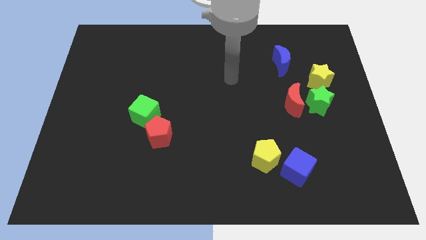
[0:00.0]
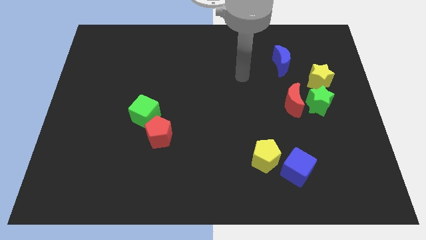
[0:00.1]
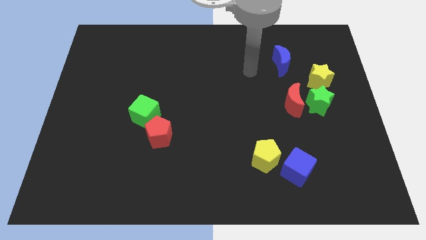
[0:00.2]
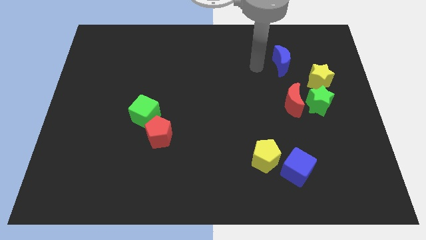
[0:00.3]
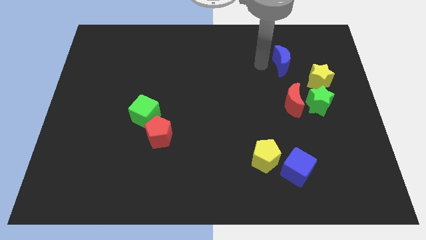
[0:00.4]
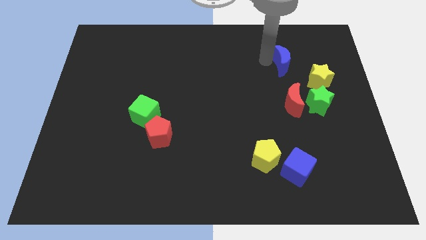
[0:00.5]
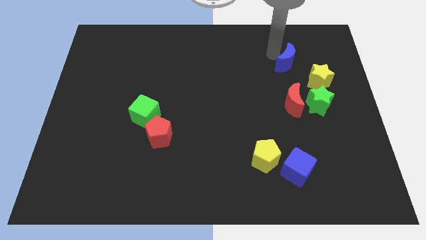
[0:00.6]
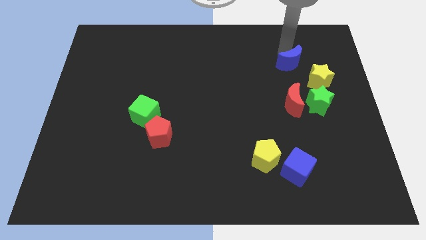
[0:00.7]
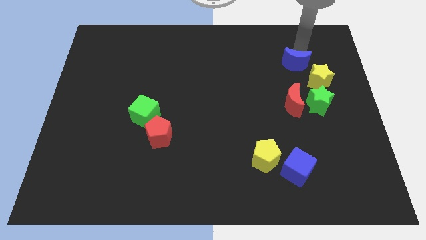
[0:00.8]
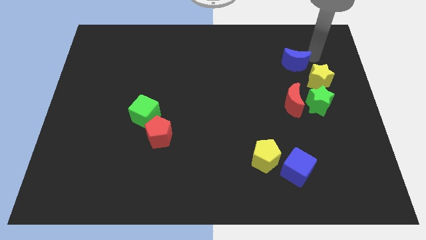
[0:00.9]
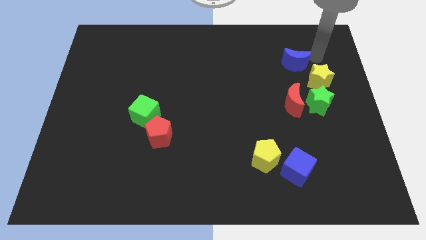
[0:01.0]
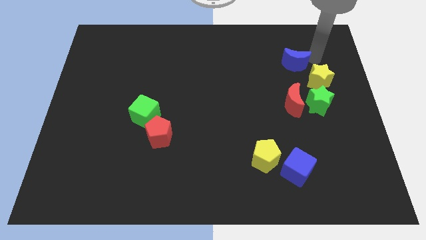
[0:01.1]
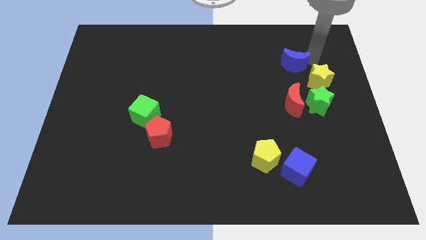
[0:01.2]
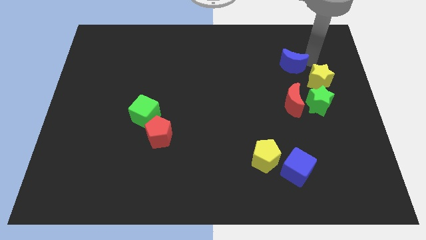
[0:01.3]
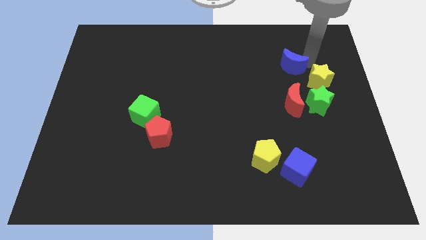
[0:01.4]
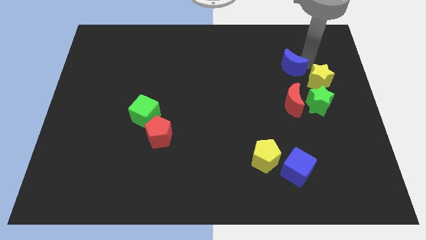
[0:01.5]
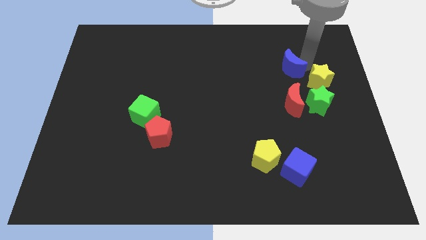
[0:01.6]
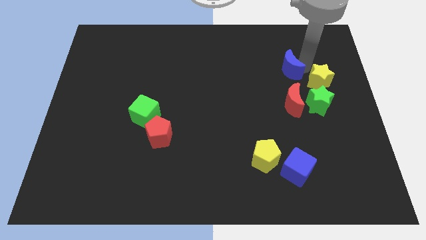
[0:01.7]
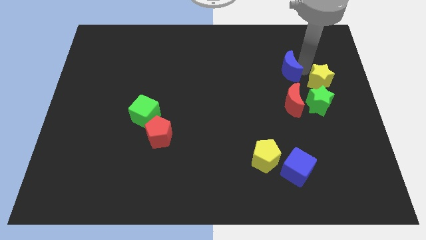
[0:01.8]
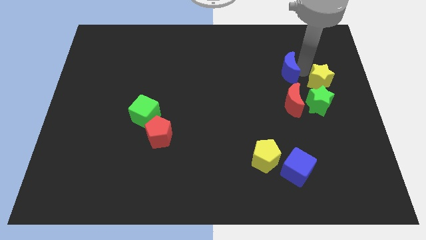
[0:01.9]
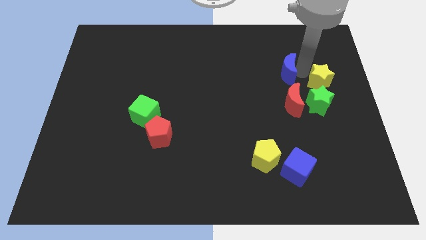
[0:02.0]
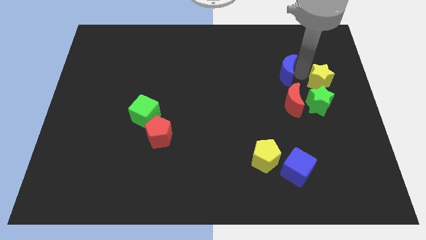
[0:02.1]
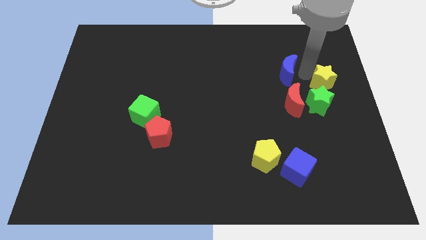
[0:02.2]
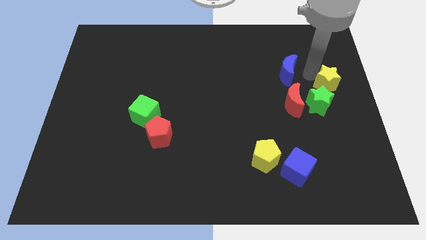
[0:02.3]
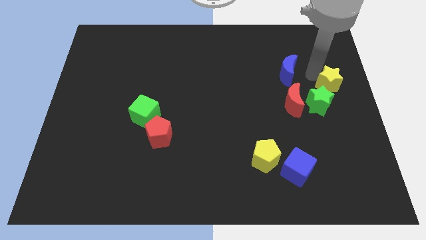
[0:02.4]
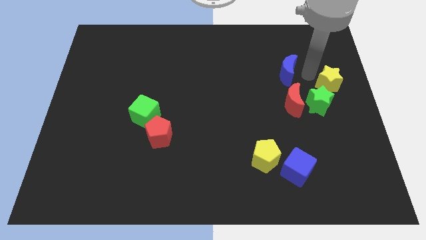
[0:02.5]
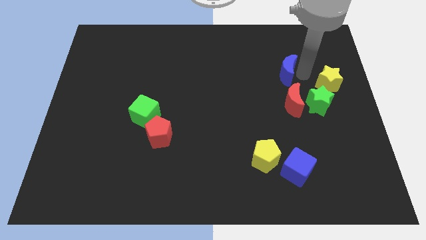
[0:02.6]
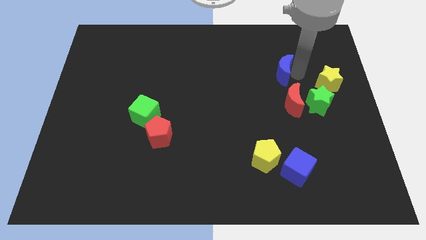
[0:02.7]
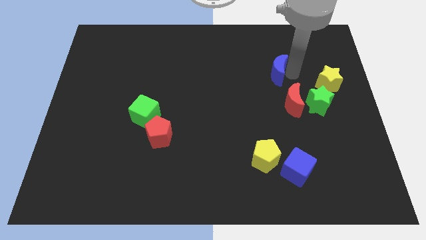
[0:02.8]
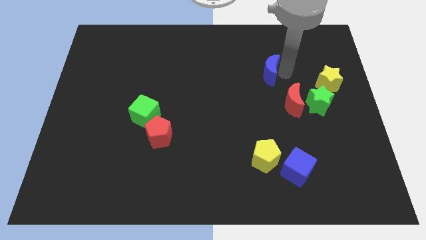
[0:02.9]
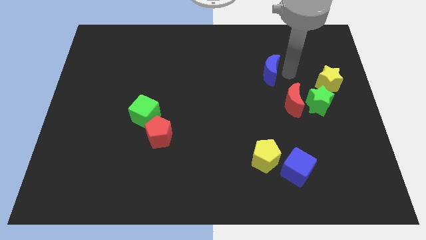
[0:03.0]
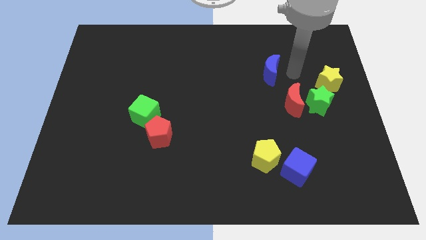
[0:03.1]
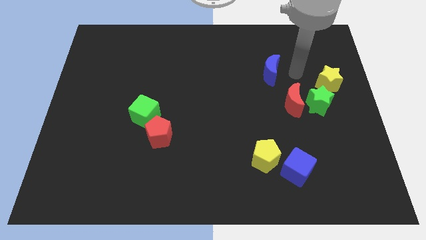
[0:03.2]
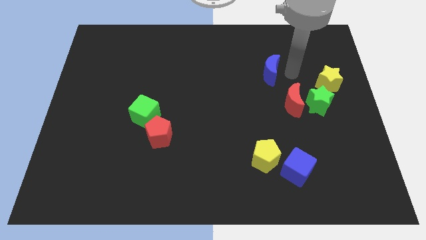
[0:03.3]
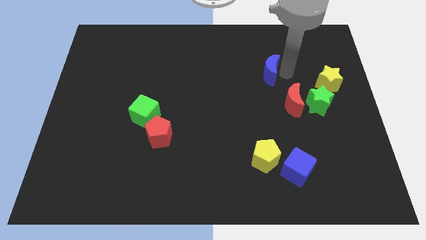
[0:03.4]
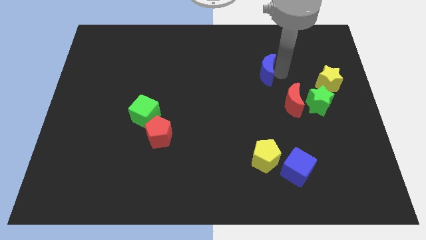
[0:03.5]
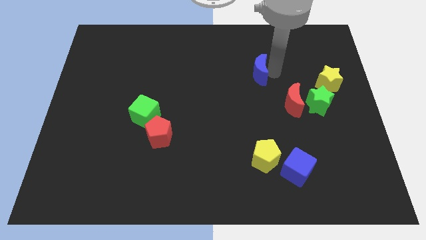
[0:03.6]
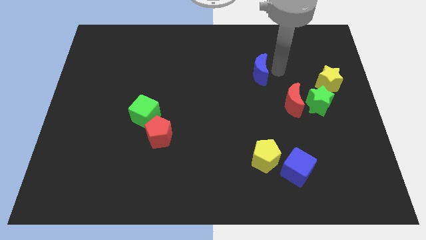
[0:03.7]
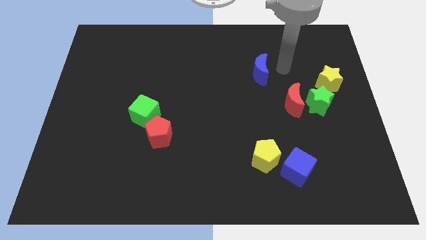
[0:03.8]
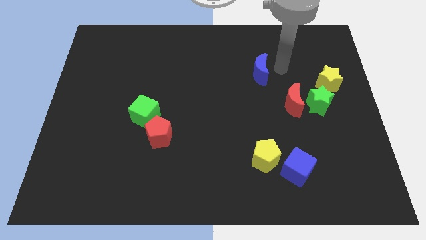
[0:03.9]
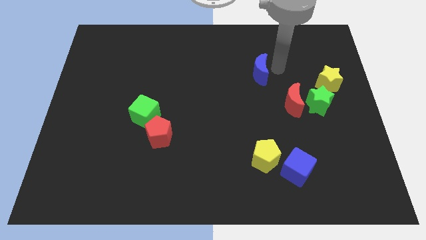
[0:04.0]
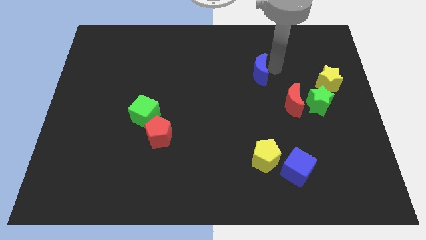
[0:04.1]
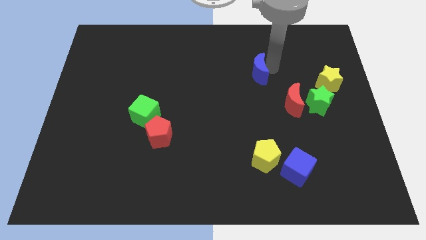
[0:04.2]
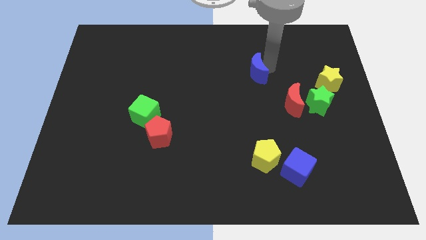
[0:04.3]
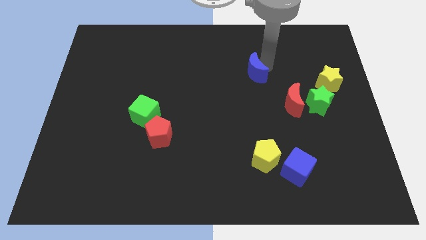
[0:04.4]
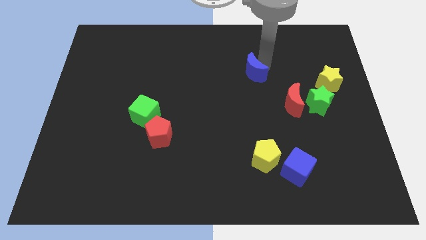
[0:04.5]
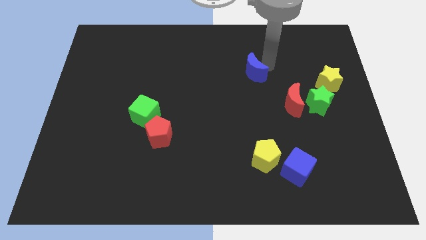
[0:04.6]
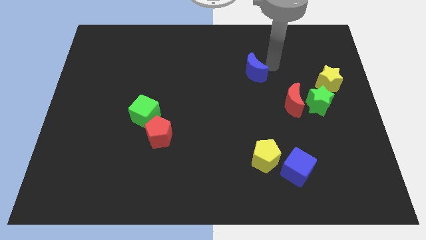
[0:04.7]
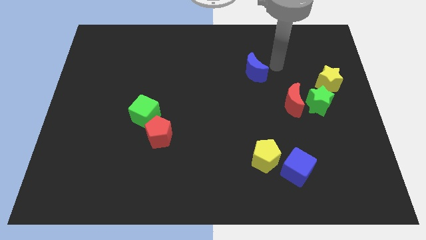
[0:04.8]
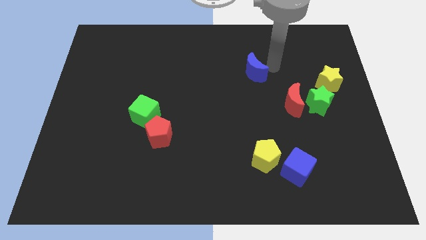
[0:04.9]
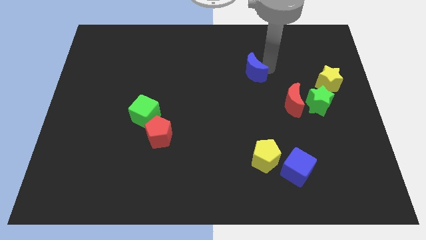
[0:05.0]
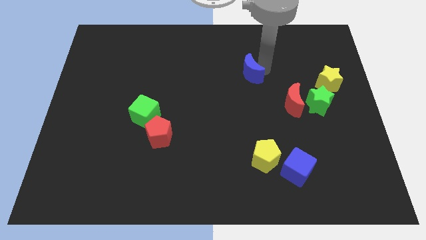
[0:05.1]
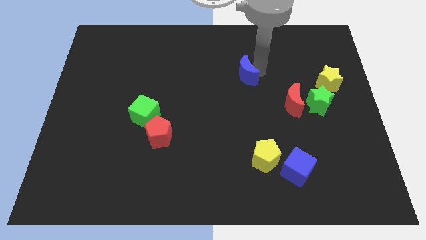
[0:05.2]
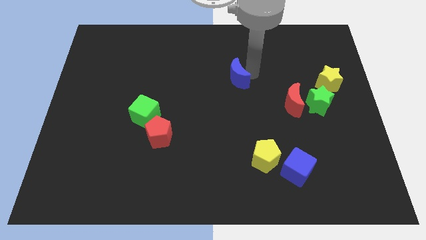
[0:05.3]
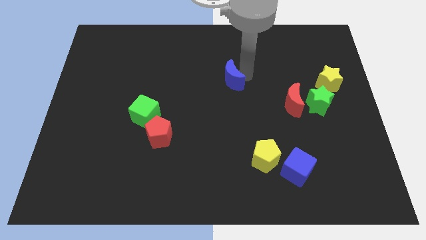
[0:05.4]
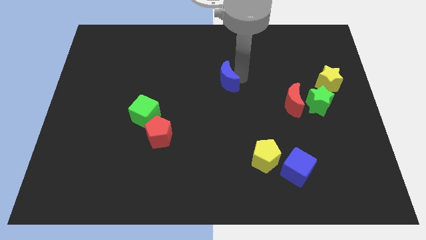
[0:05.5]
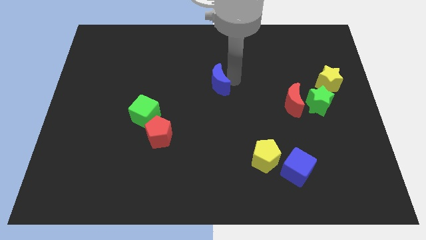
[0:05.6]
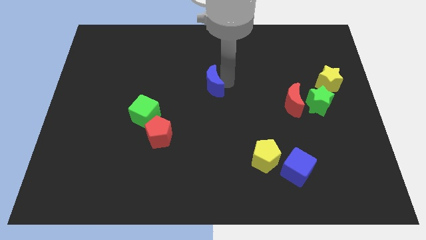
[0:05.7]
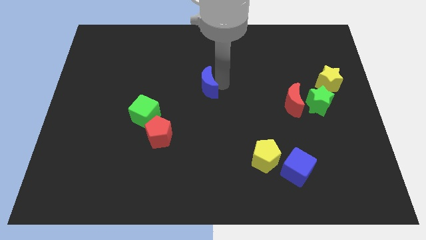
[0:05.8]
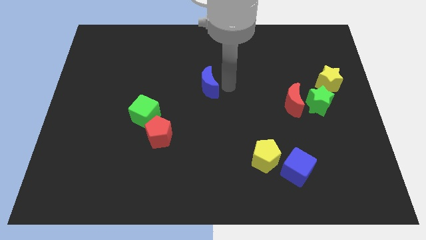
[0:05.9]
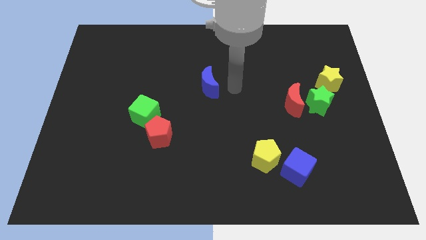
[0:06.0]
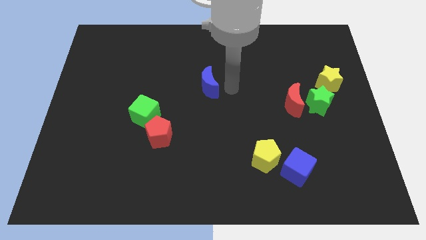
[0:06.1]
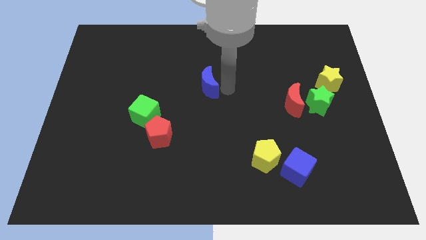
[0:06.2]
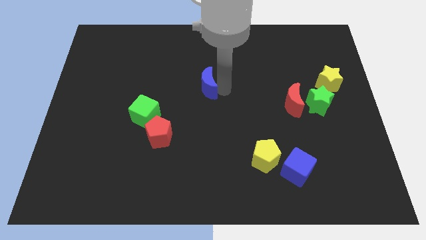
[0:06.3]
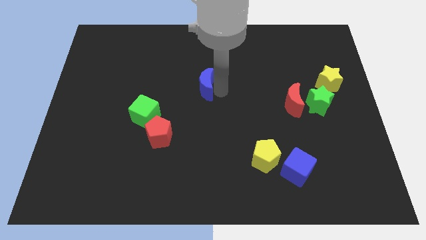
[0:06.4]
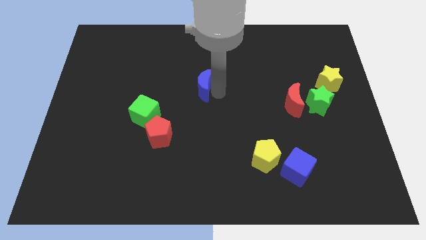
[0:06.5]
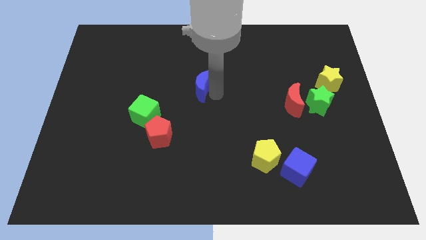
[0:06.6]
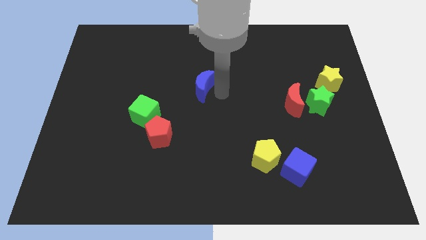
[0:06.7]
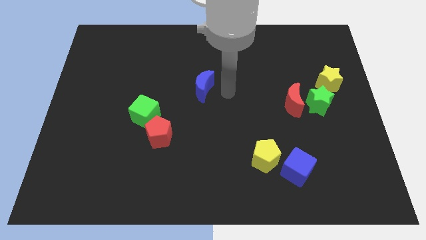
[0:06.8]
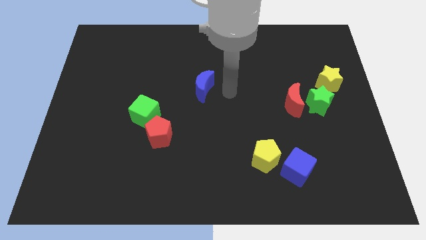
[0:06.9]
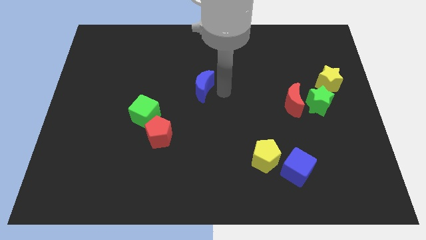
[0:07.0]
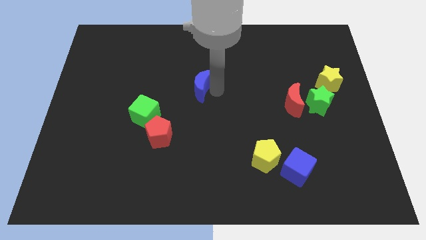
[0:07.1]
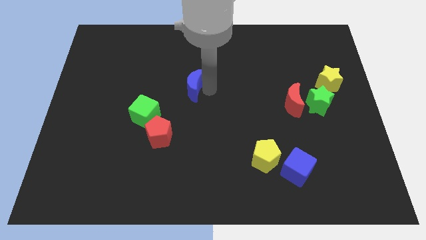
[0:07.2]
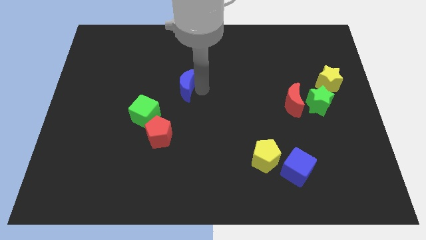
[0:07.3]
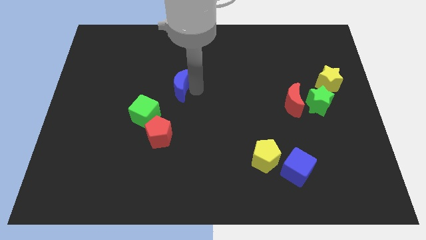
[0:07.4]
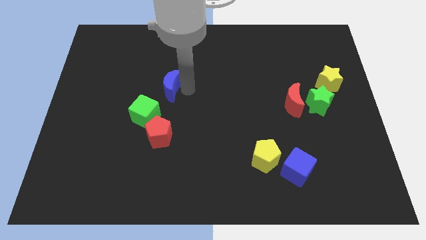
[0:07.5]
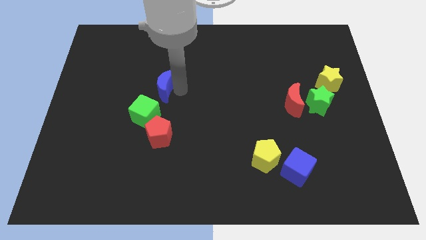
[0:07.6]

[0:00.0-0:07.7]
slide the blue moon to the top of the green cube
